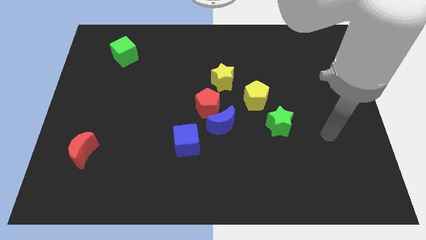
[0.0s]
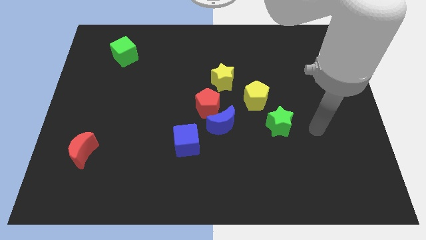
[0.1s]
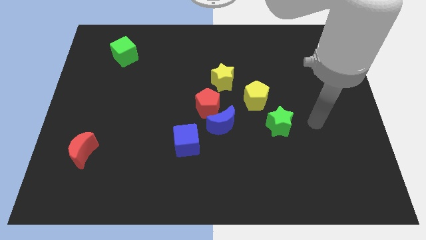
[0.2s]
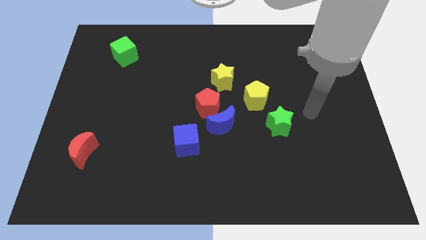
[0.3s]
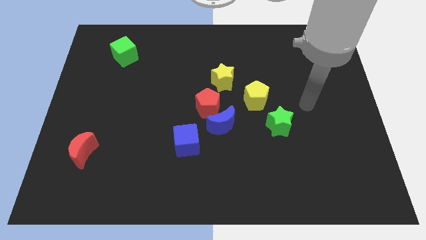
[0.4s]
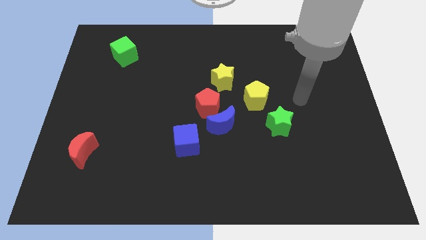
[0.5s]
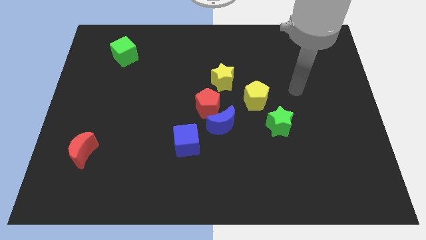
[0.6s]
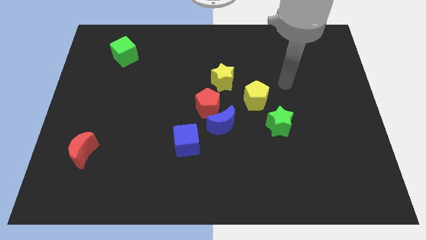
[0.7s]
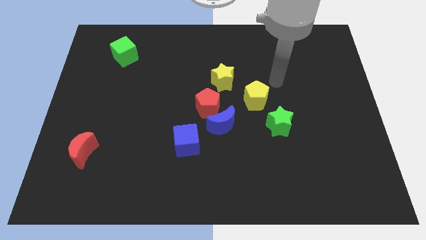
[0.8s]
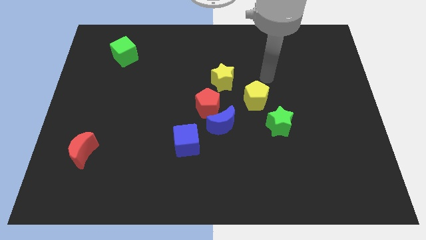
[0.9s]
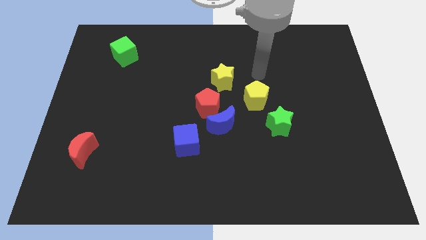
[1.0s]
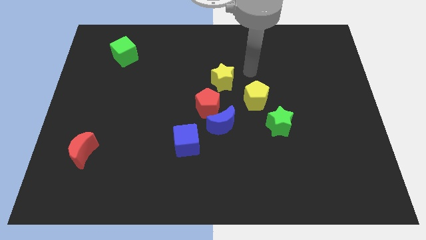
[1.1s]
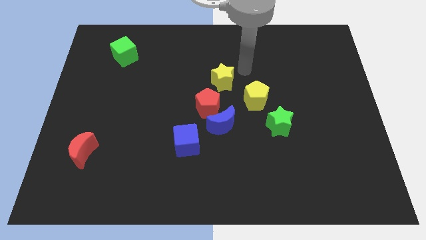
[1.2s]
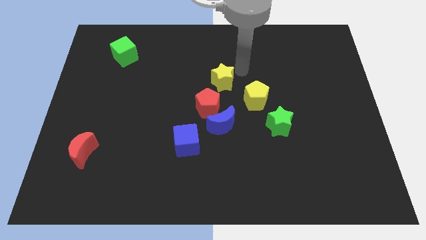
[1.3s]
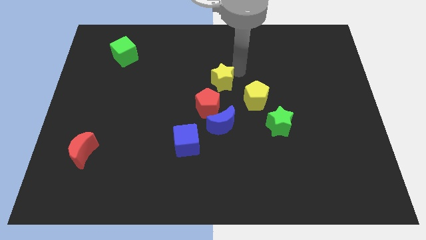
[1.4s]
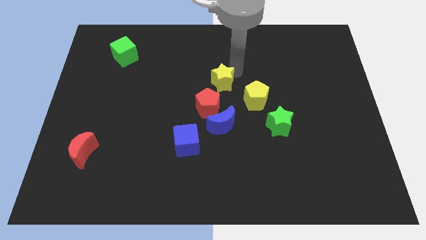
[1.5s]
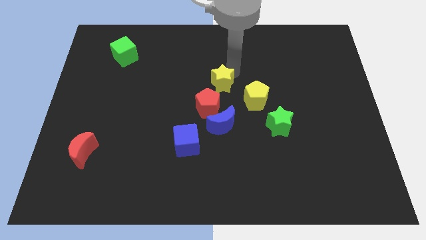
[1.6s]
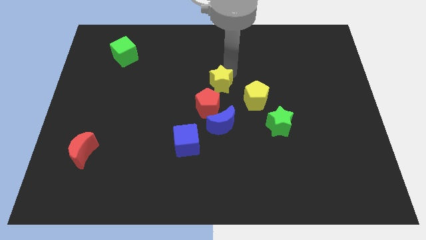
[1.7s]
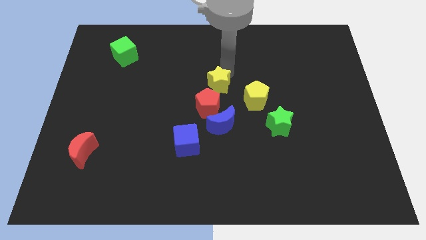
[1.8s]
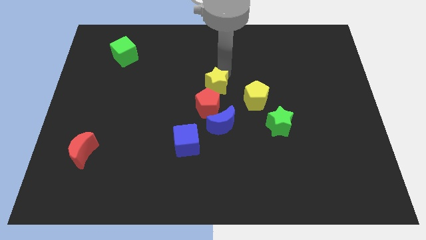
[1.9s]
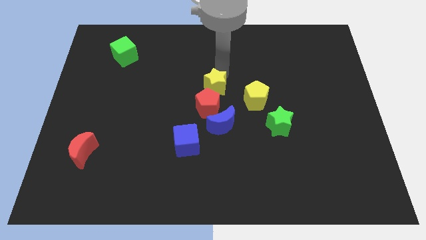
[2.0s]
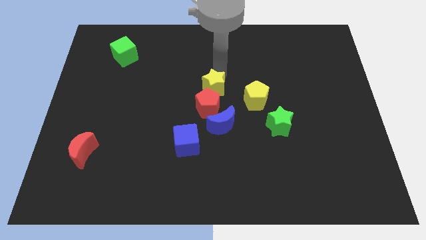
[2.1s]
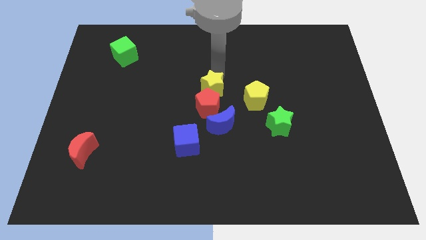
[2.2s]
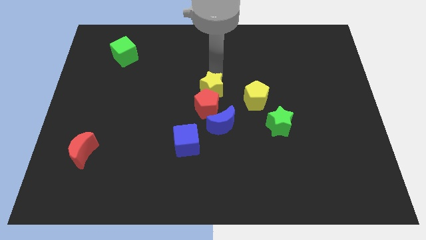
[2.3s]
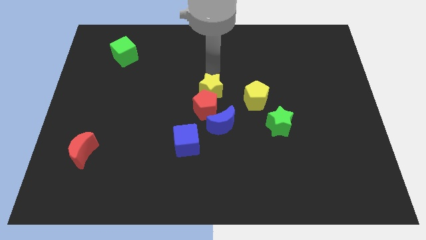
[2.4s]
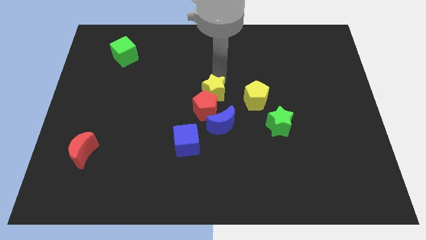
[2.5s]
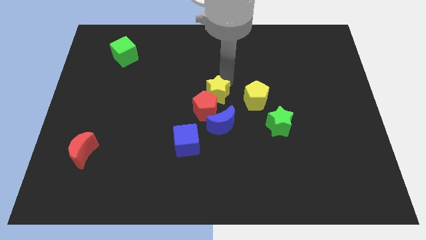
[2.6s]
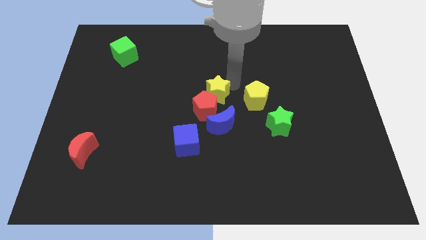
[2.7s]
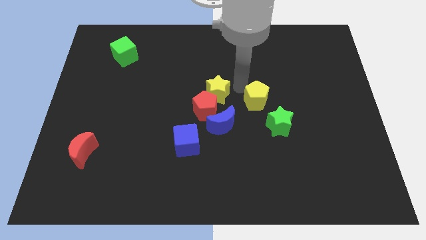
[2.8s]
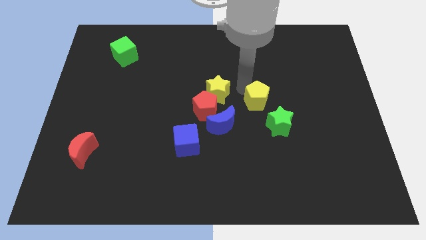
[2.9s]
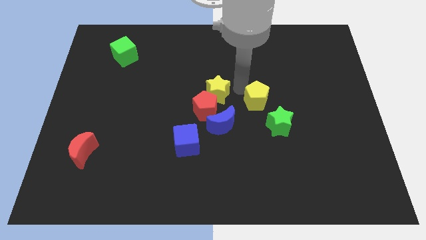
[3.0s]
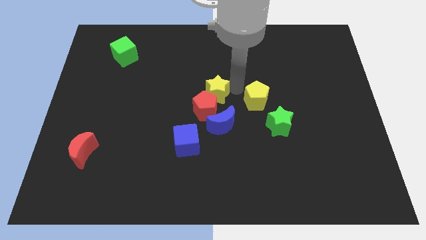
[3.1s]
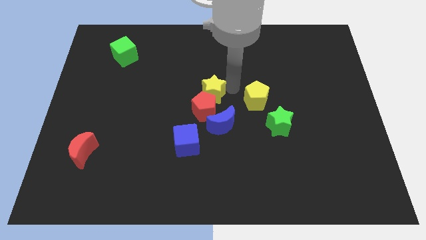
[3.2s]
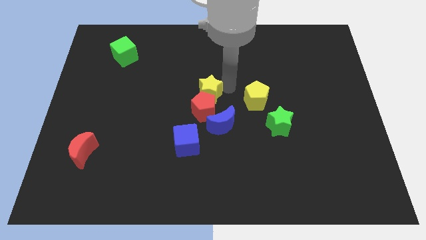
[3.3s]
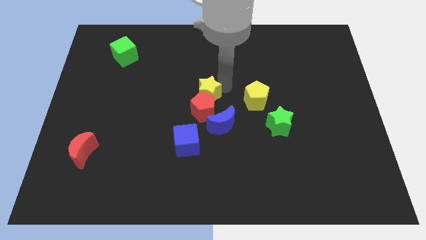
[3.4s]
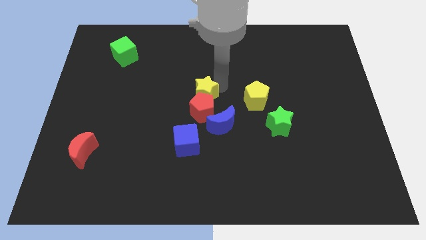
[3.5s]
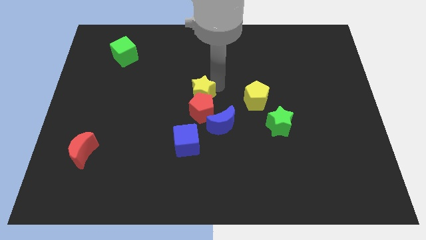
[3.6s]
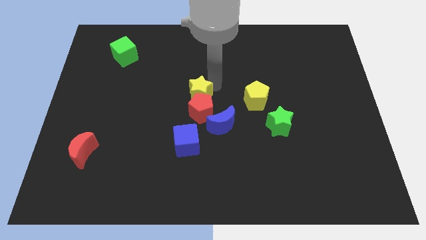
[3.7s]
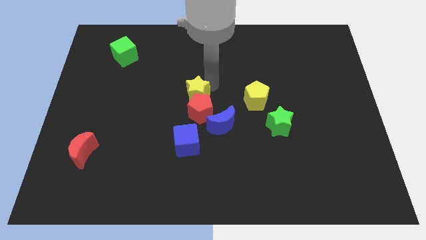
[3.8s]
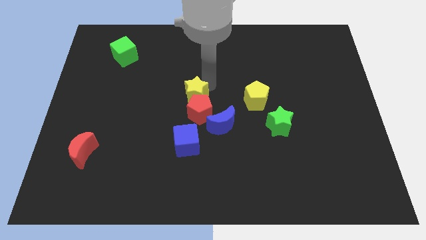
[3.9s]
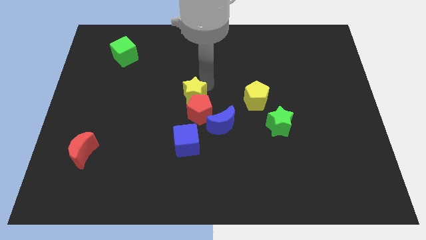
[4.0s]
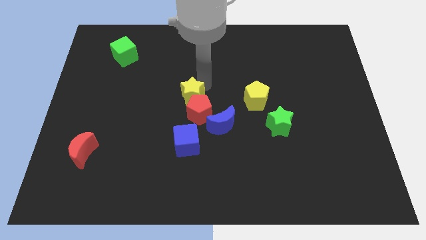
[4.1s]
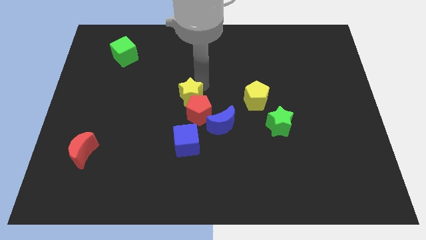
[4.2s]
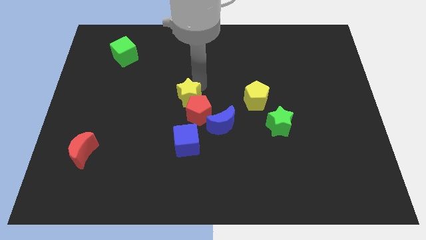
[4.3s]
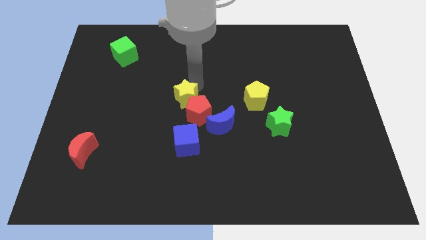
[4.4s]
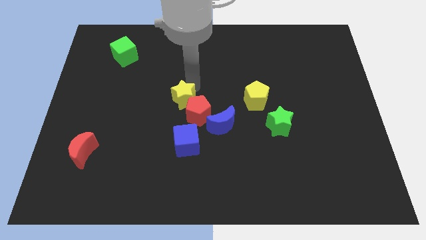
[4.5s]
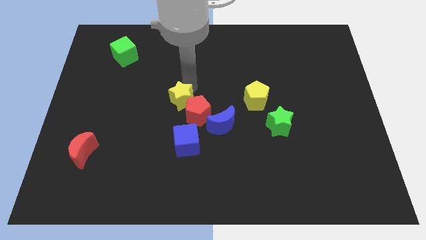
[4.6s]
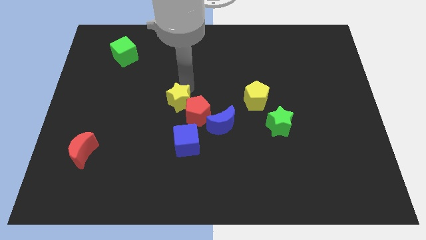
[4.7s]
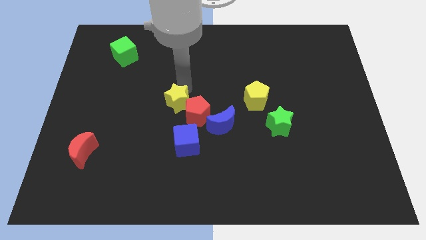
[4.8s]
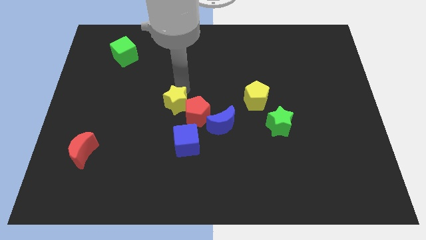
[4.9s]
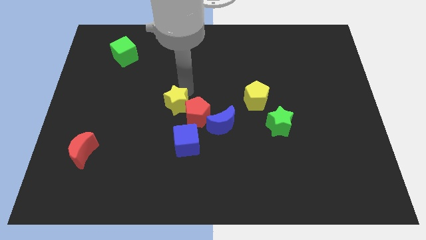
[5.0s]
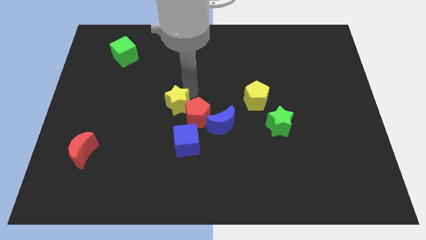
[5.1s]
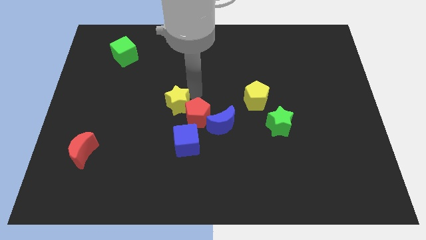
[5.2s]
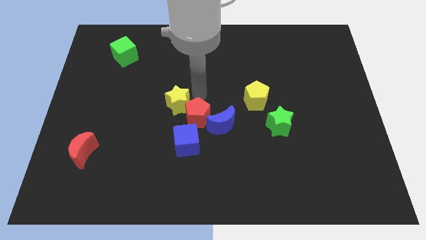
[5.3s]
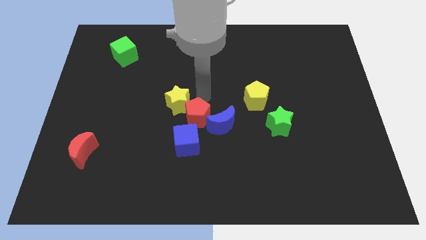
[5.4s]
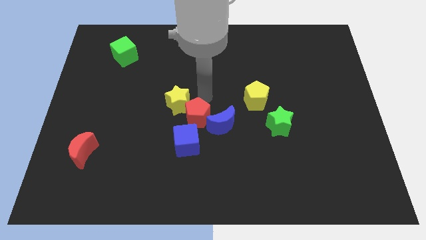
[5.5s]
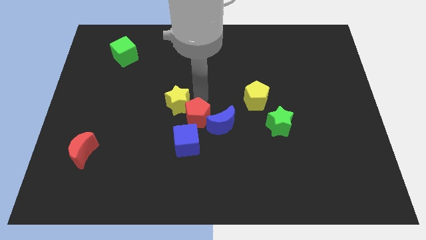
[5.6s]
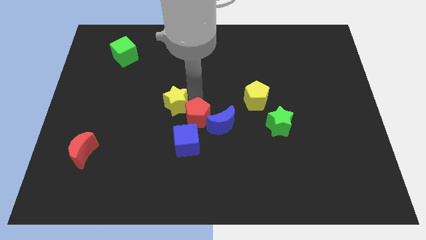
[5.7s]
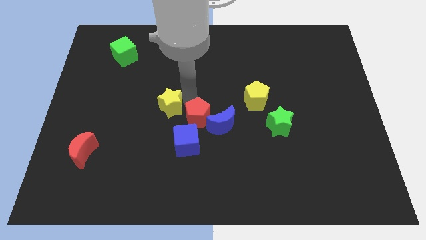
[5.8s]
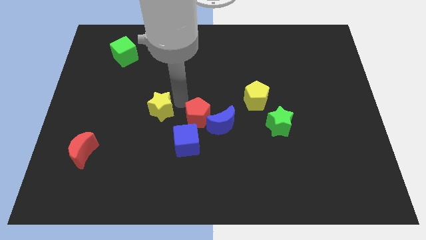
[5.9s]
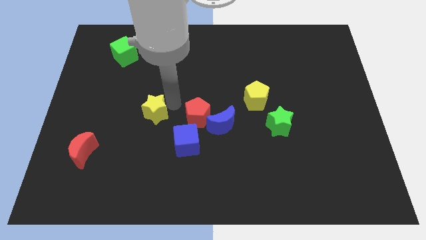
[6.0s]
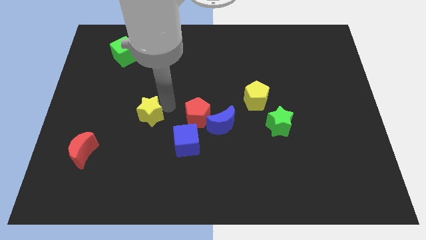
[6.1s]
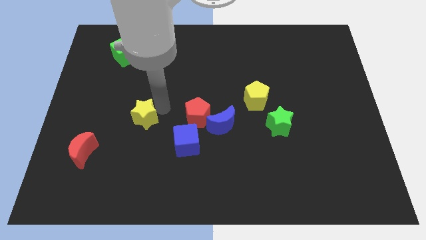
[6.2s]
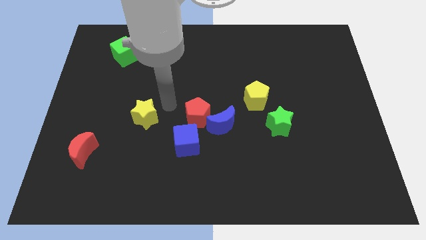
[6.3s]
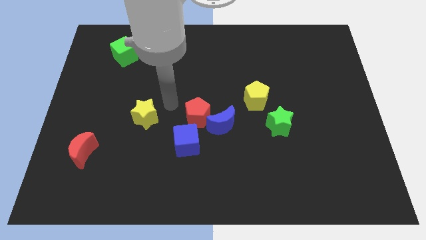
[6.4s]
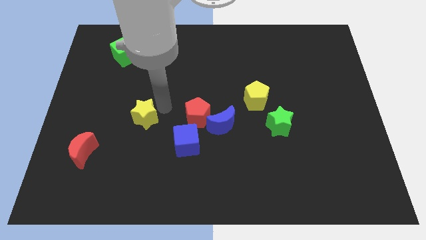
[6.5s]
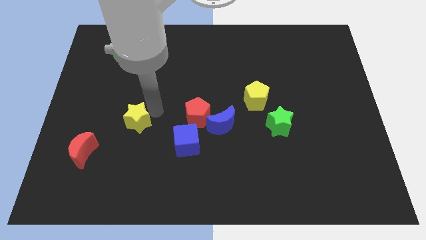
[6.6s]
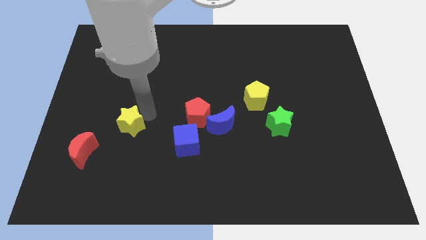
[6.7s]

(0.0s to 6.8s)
put the yellow star to the top right side of the red moon
